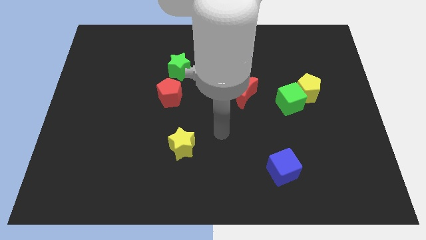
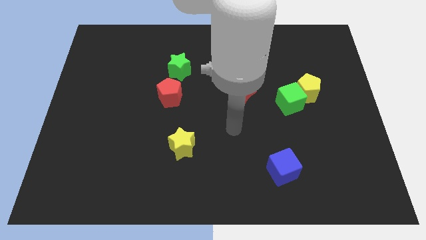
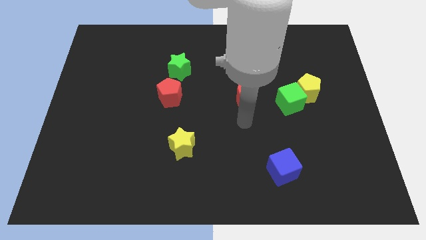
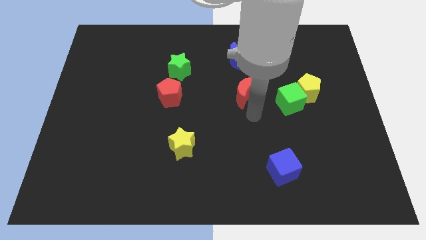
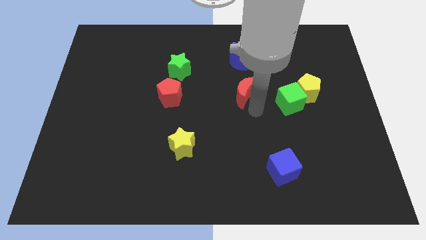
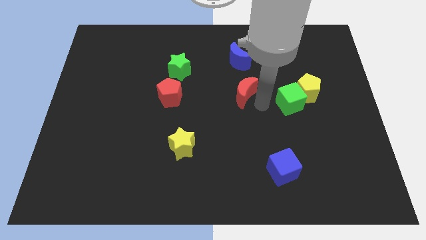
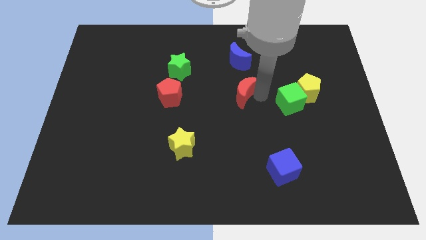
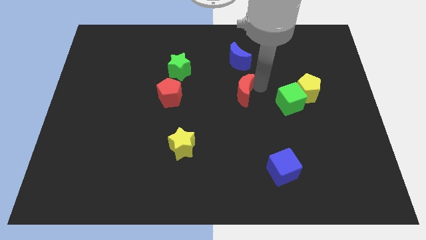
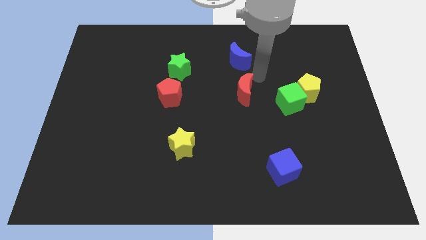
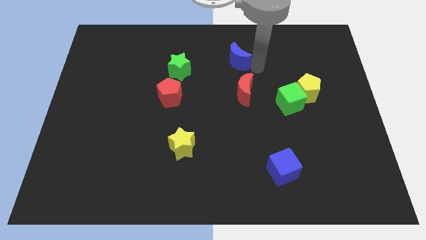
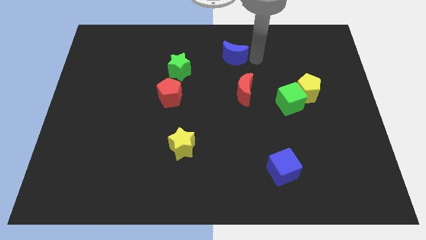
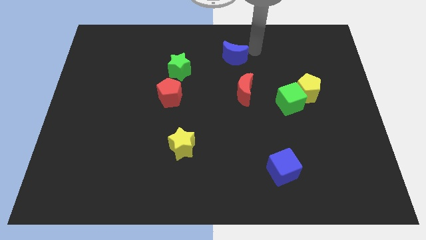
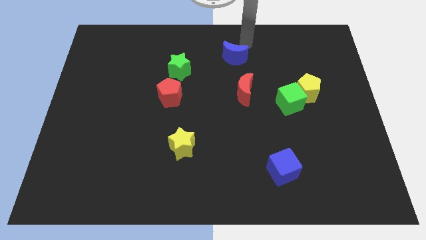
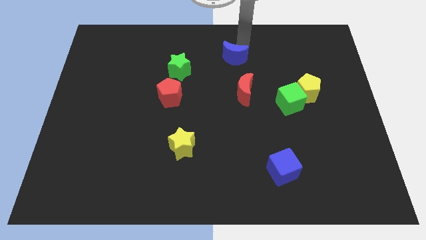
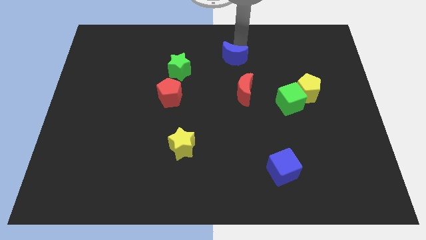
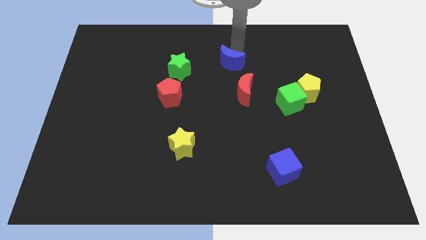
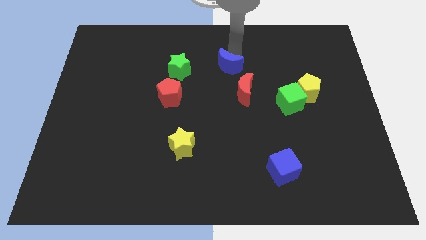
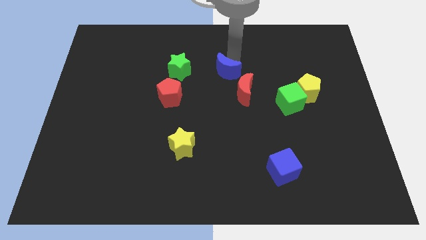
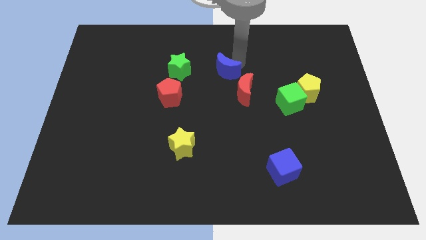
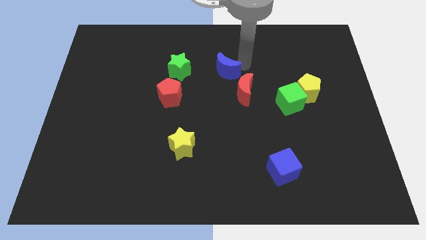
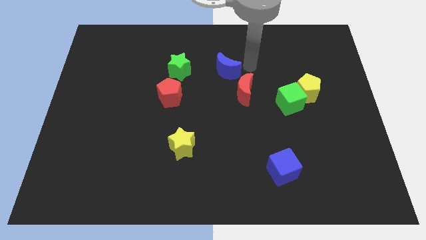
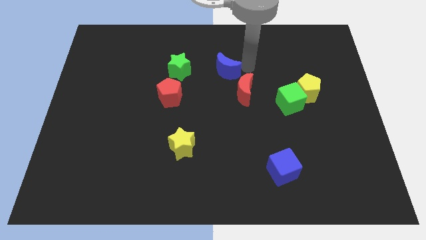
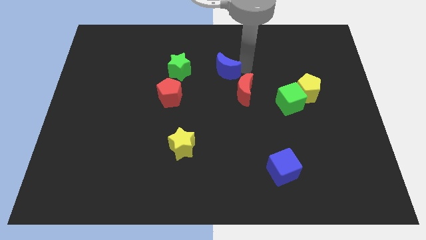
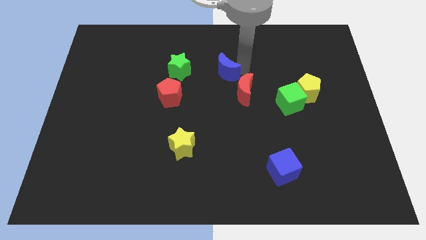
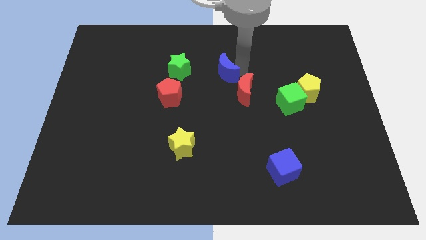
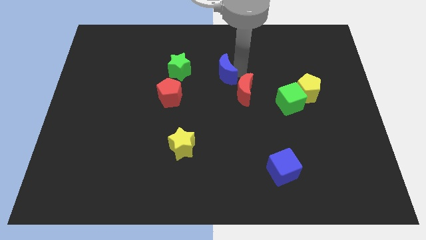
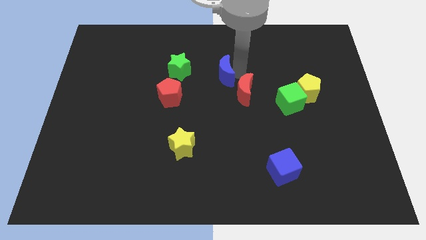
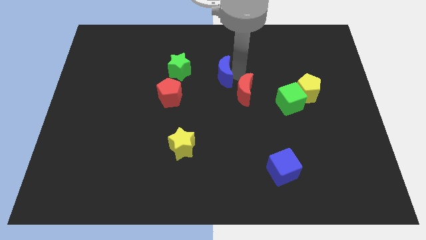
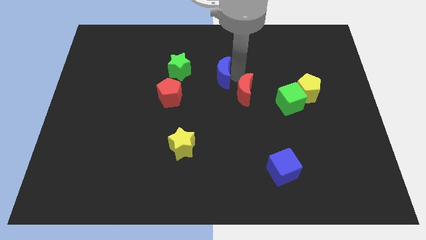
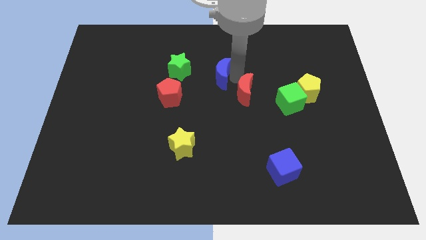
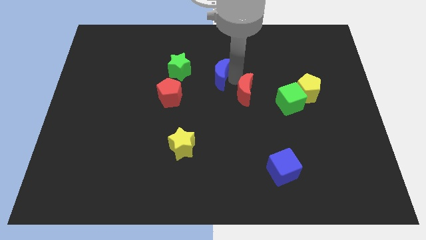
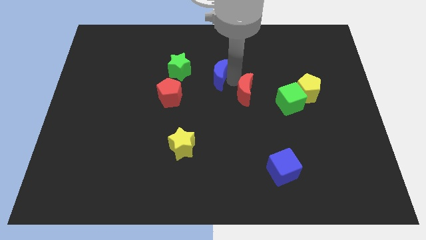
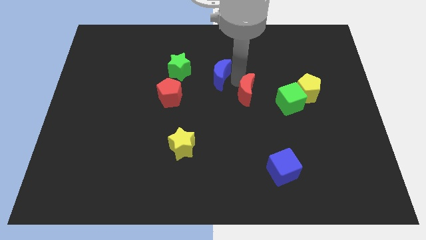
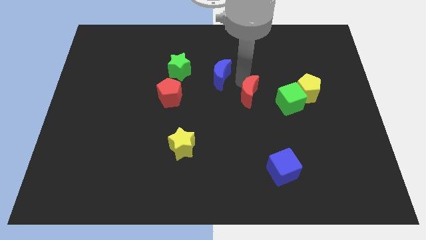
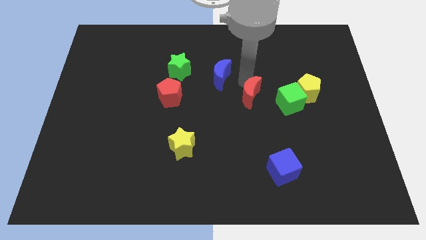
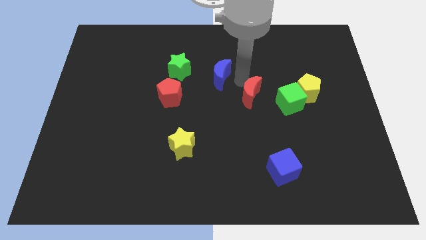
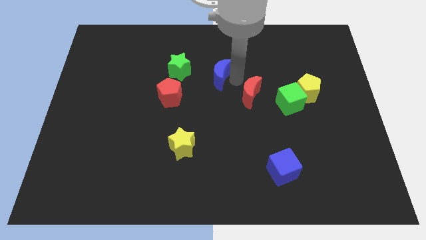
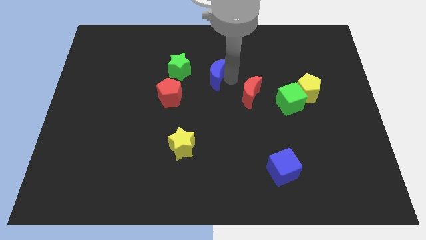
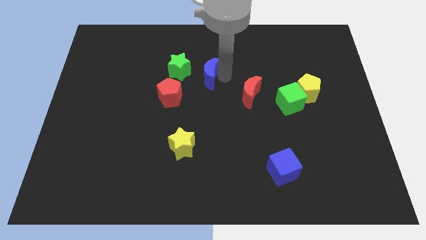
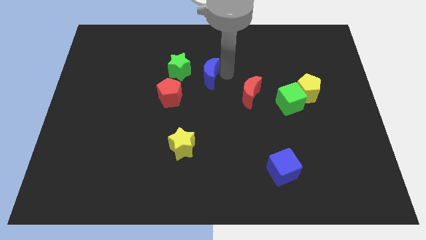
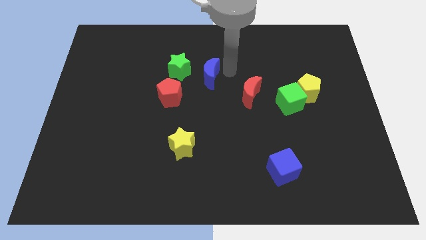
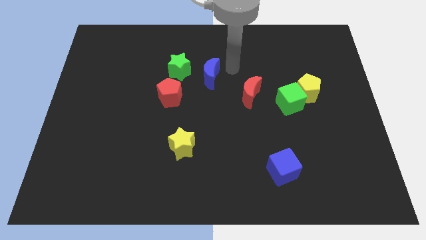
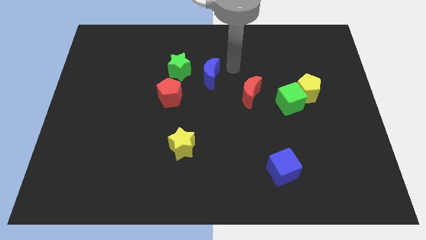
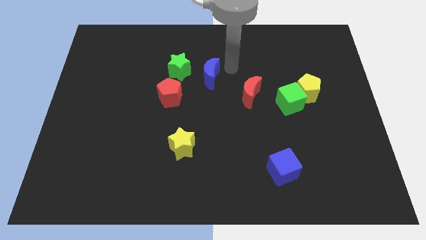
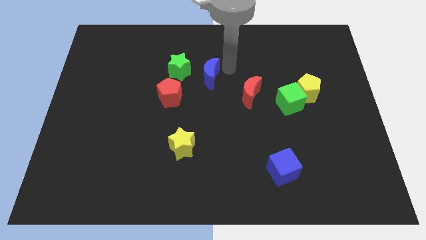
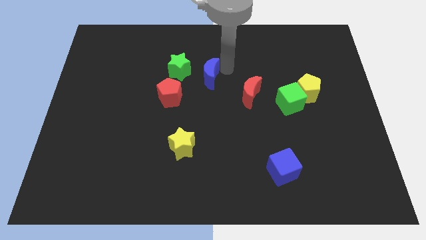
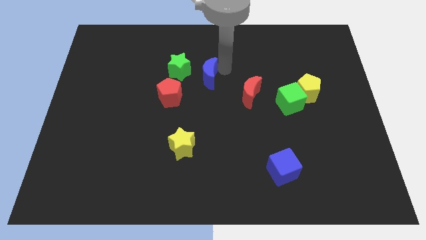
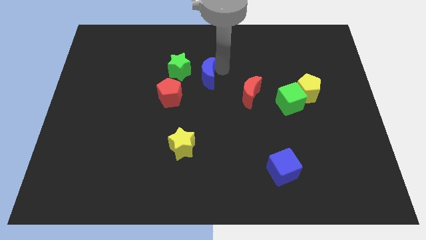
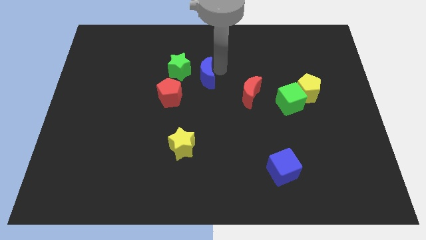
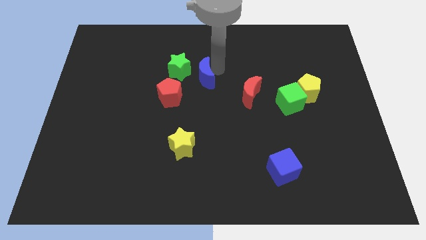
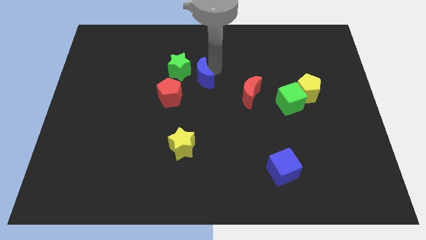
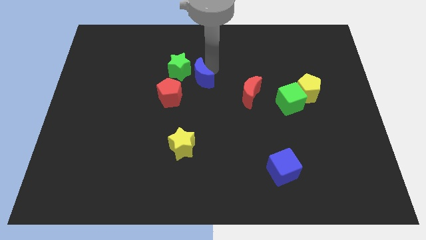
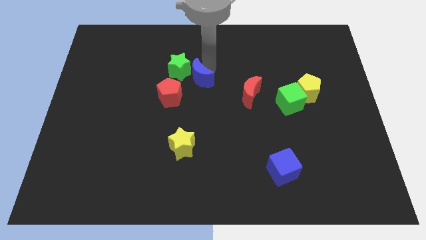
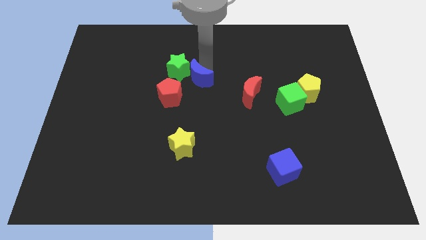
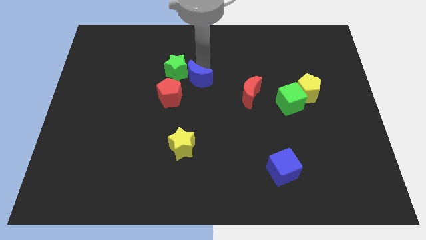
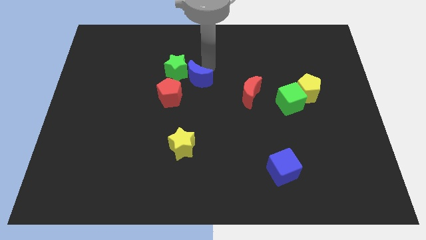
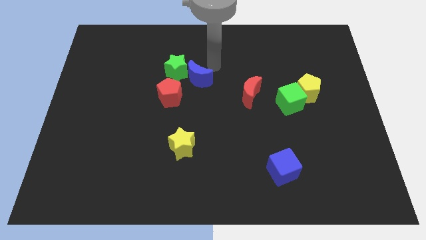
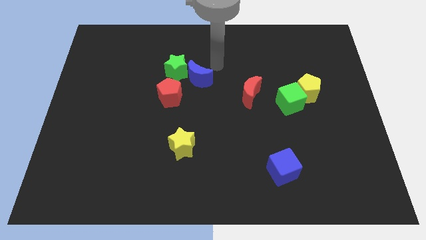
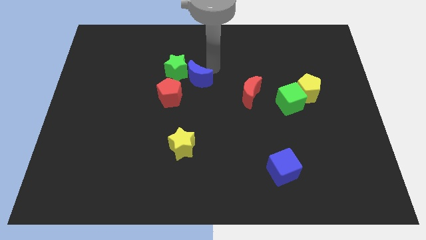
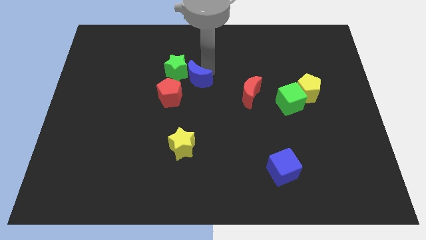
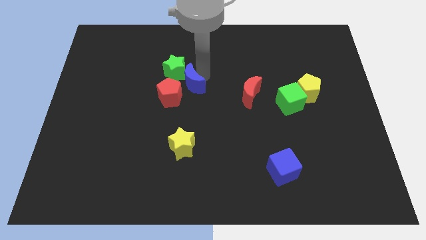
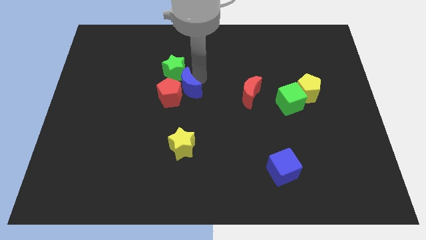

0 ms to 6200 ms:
move the blue moon next to the red pentagon
